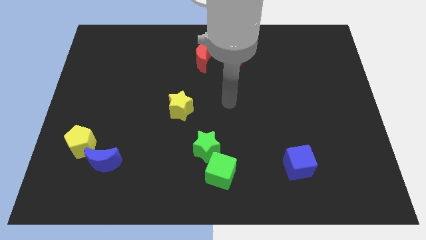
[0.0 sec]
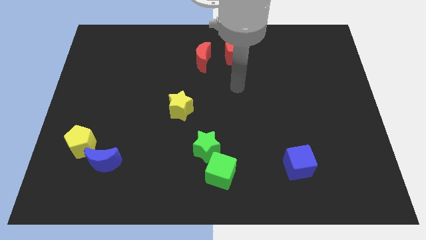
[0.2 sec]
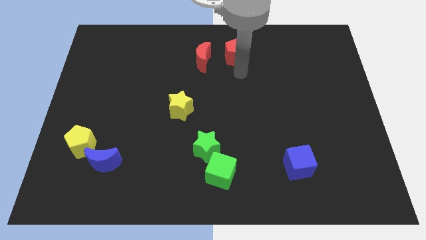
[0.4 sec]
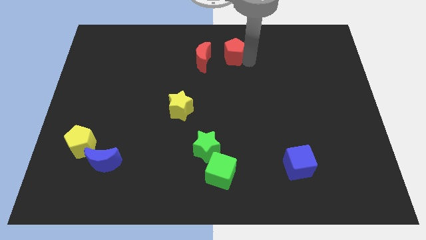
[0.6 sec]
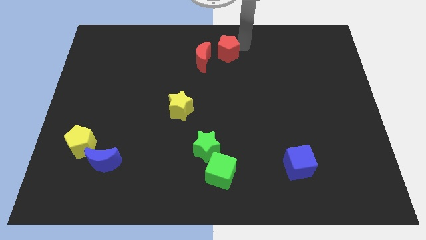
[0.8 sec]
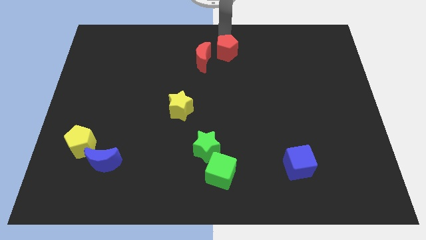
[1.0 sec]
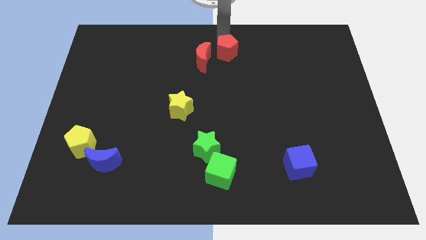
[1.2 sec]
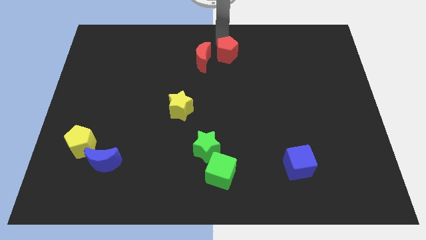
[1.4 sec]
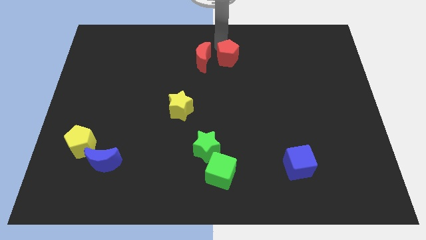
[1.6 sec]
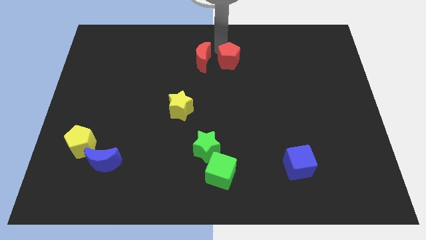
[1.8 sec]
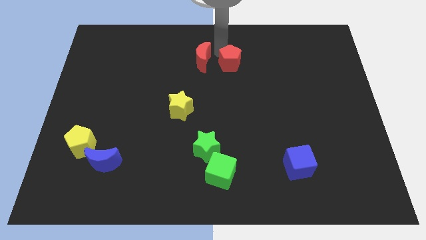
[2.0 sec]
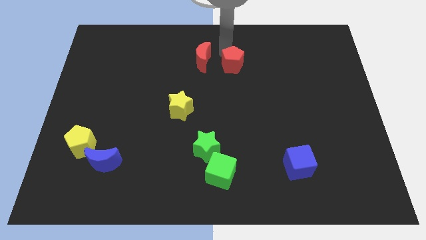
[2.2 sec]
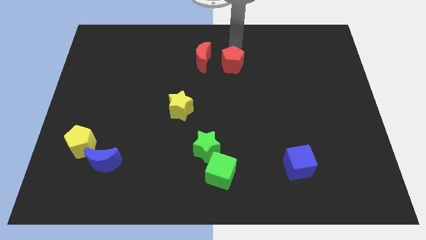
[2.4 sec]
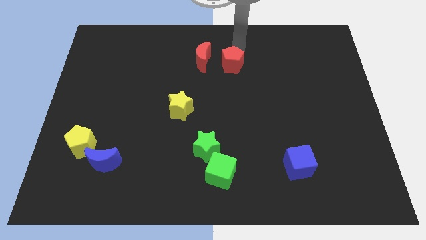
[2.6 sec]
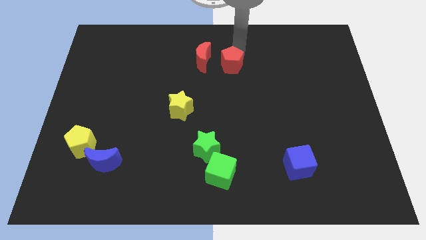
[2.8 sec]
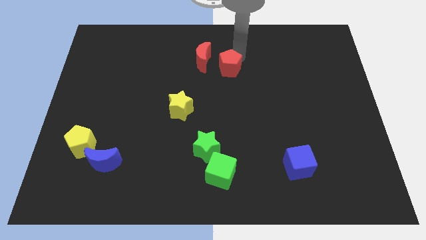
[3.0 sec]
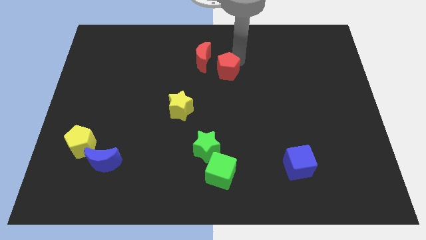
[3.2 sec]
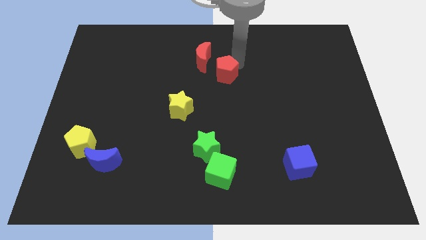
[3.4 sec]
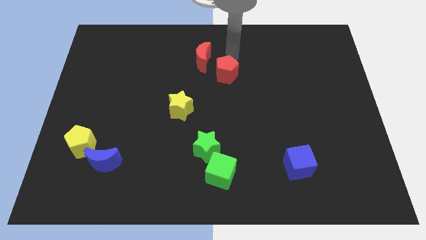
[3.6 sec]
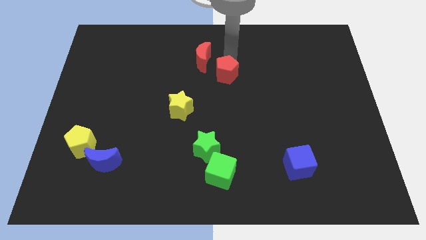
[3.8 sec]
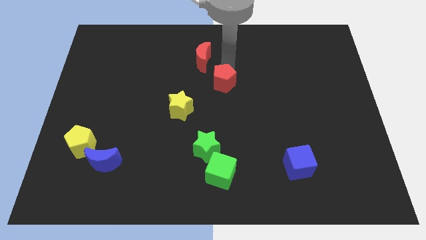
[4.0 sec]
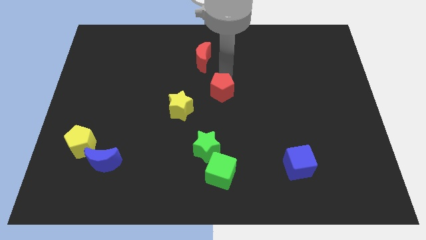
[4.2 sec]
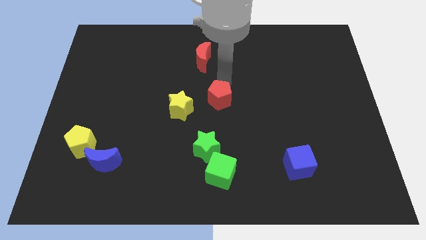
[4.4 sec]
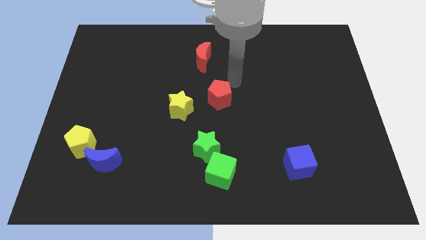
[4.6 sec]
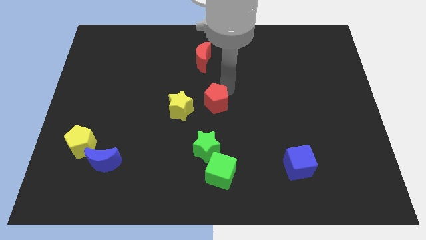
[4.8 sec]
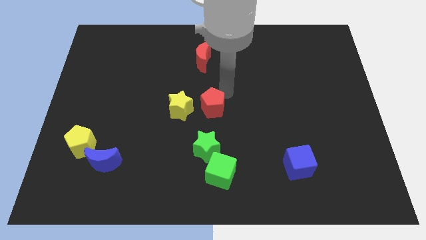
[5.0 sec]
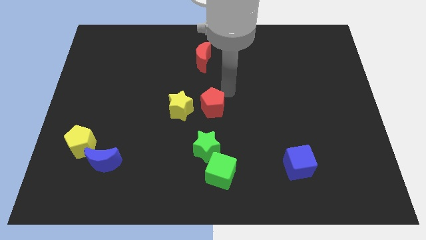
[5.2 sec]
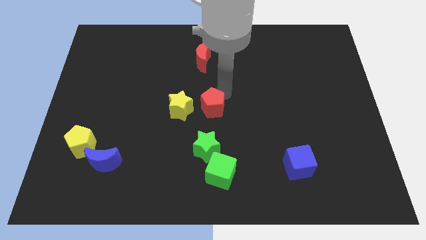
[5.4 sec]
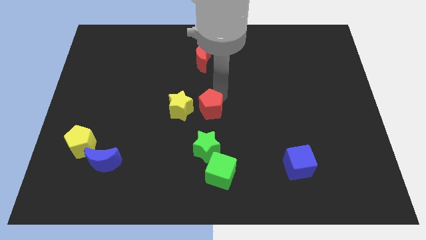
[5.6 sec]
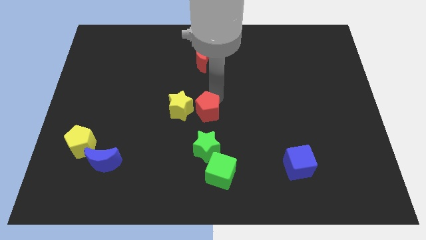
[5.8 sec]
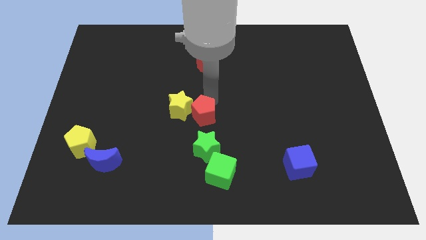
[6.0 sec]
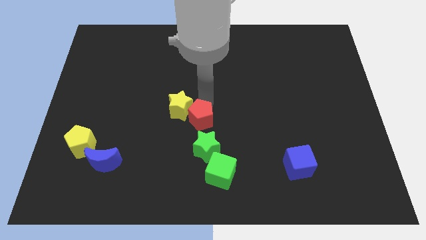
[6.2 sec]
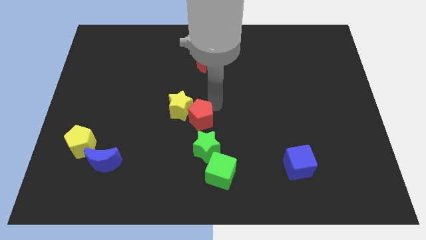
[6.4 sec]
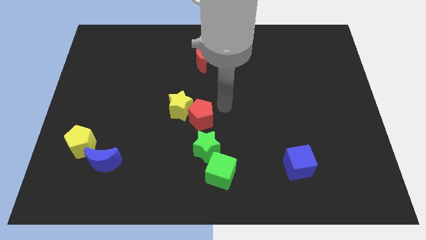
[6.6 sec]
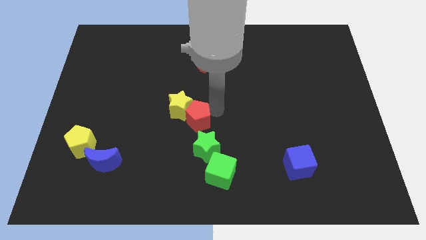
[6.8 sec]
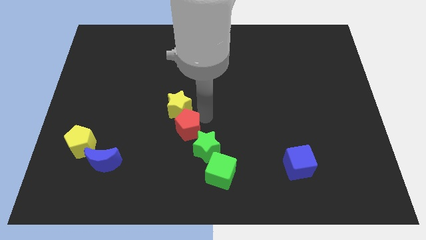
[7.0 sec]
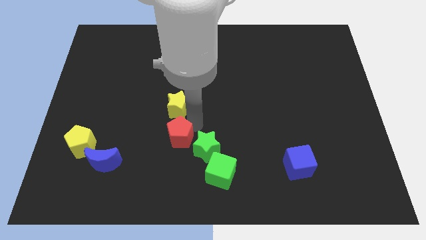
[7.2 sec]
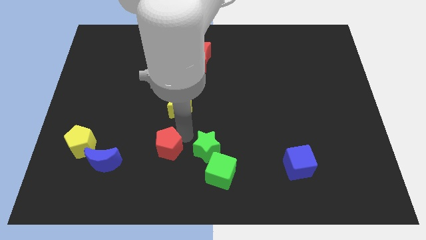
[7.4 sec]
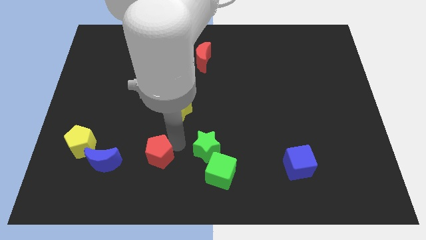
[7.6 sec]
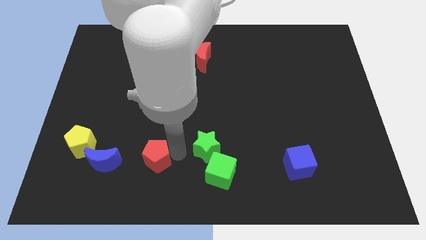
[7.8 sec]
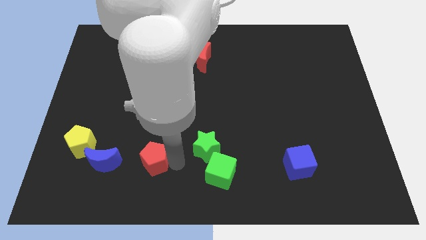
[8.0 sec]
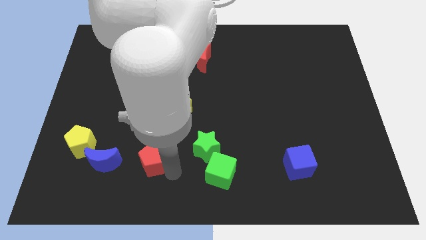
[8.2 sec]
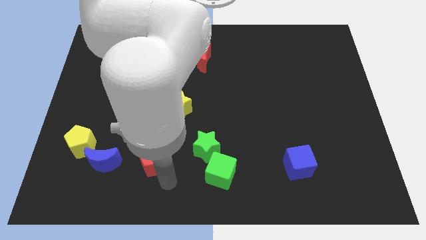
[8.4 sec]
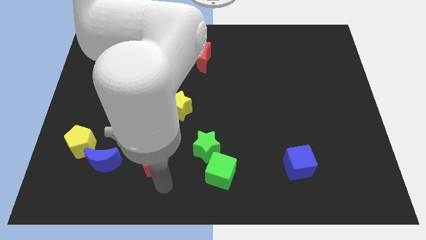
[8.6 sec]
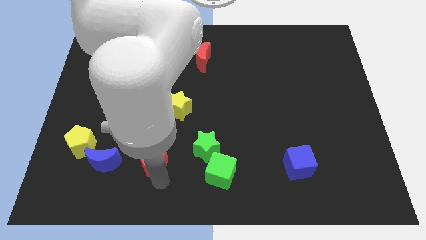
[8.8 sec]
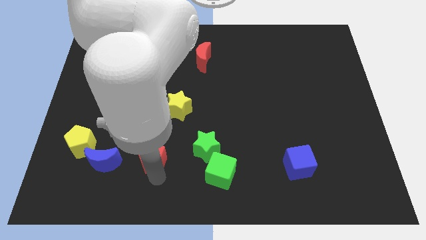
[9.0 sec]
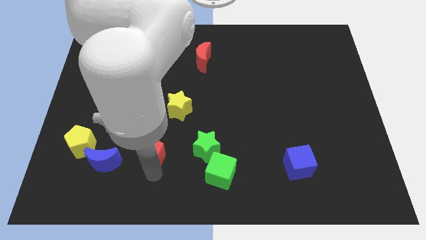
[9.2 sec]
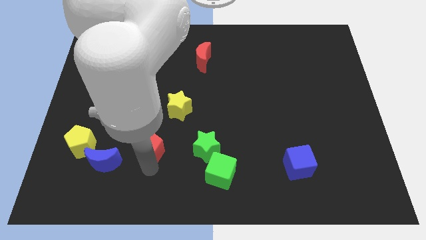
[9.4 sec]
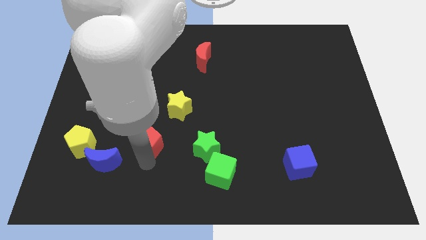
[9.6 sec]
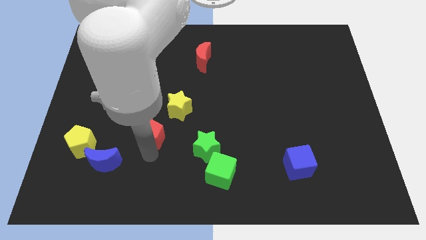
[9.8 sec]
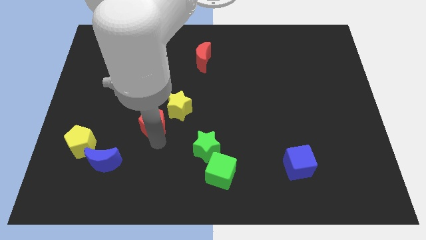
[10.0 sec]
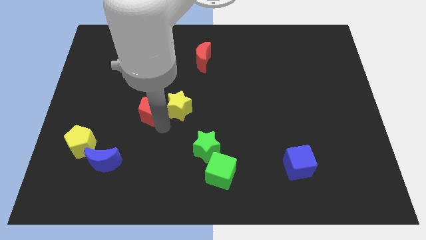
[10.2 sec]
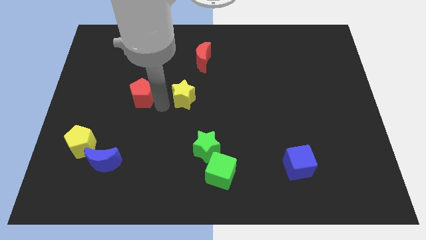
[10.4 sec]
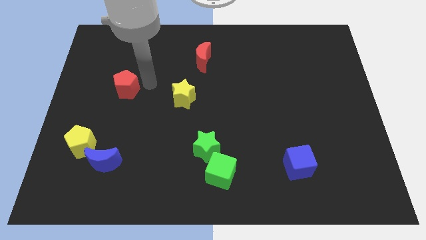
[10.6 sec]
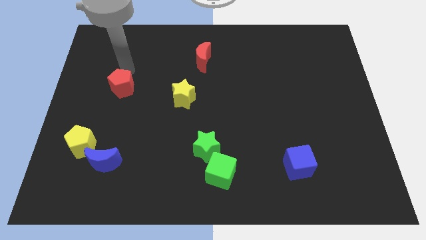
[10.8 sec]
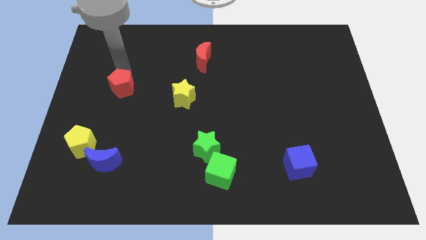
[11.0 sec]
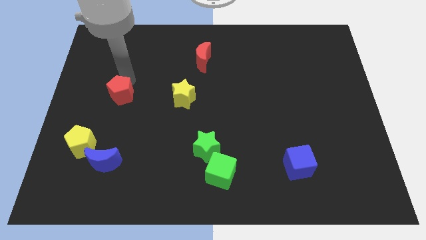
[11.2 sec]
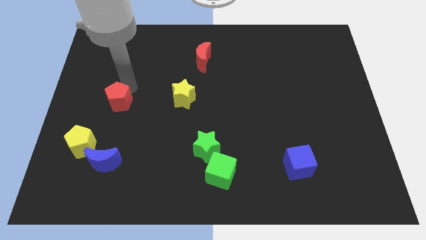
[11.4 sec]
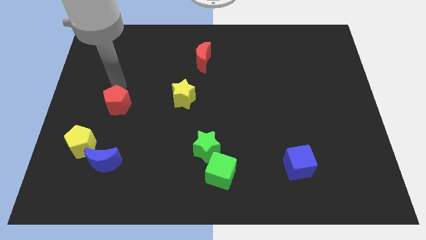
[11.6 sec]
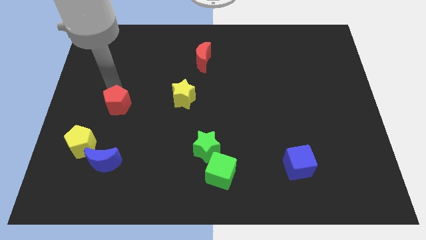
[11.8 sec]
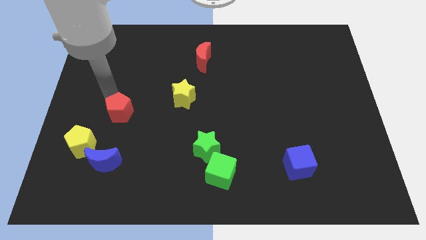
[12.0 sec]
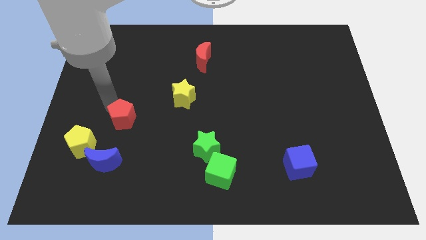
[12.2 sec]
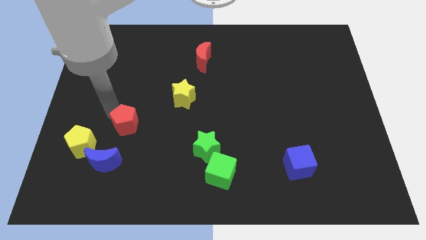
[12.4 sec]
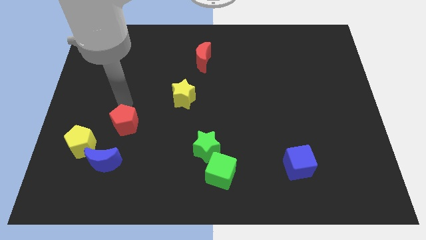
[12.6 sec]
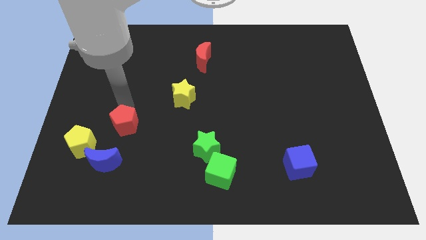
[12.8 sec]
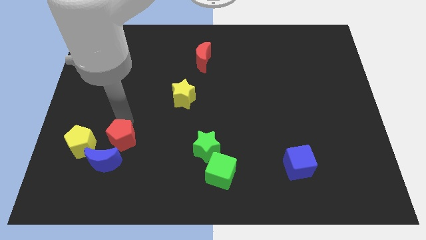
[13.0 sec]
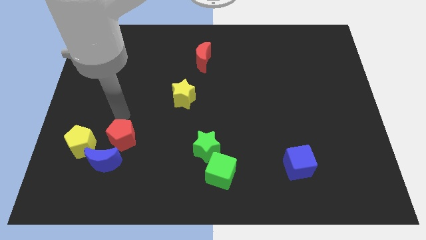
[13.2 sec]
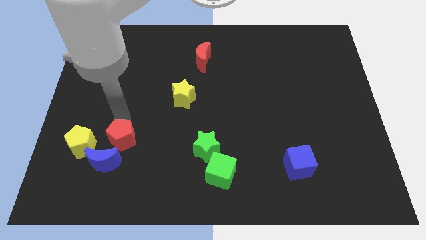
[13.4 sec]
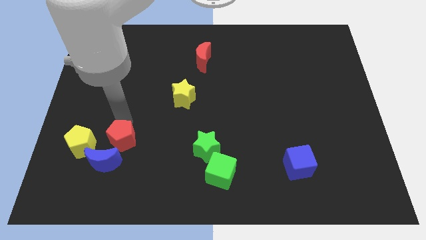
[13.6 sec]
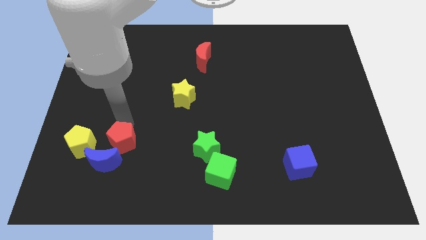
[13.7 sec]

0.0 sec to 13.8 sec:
move the red pentagon next to the blue moon
